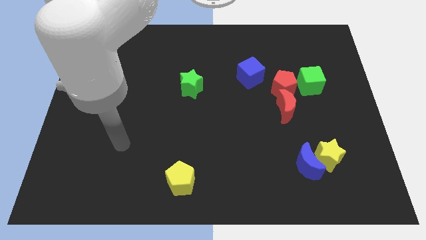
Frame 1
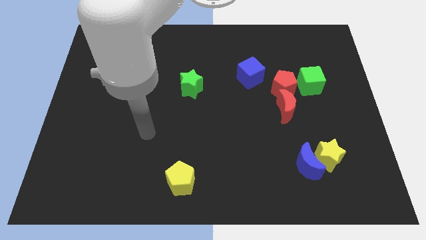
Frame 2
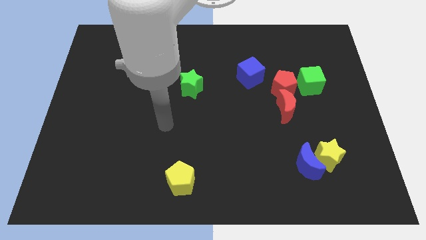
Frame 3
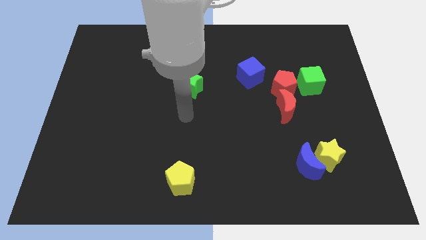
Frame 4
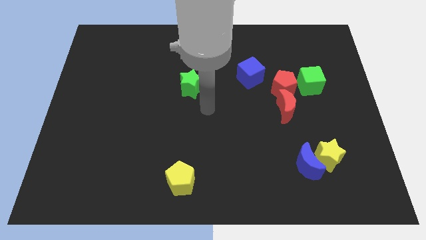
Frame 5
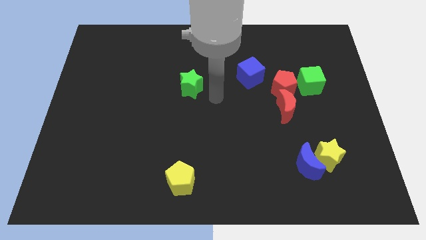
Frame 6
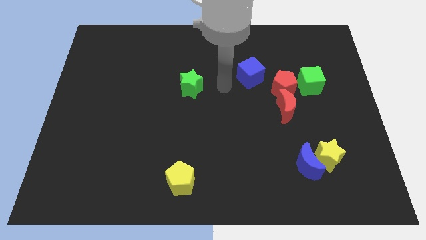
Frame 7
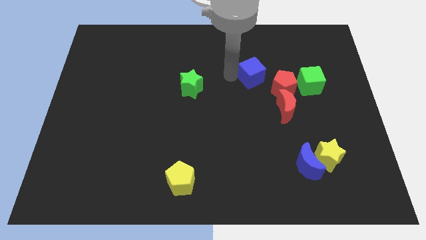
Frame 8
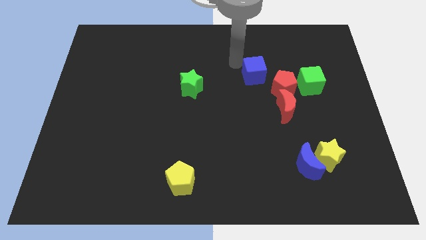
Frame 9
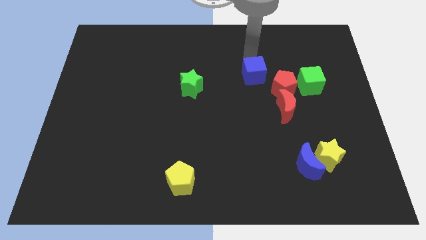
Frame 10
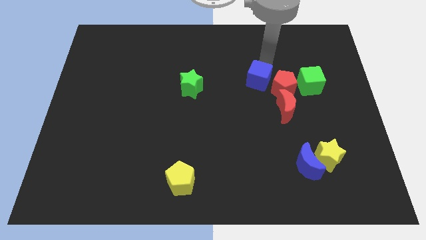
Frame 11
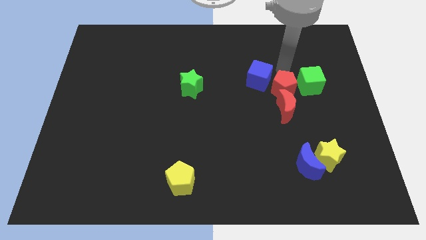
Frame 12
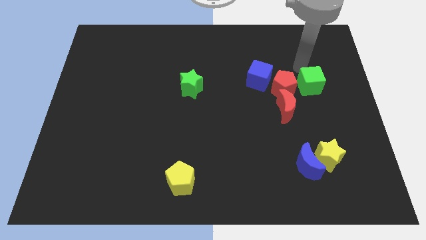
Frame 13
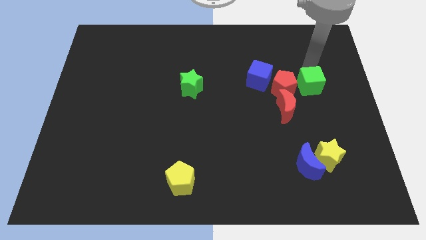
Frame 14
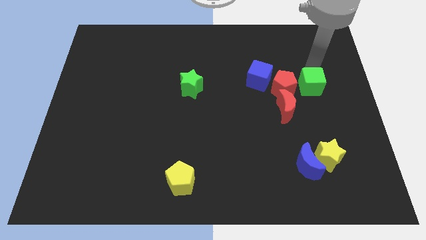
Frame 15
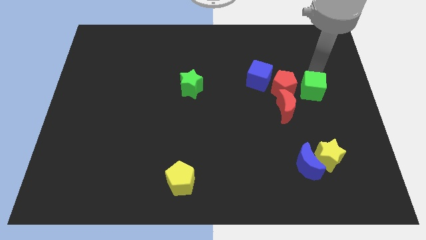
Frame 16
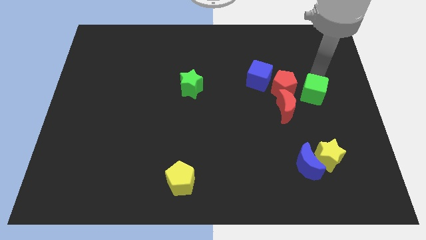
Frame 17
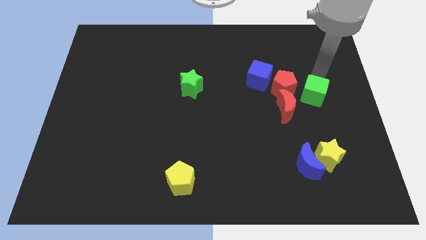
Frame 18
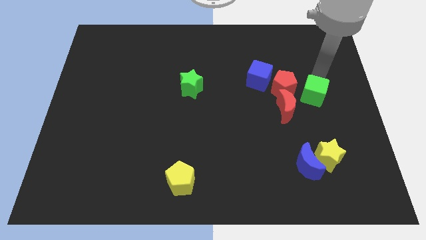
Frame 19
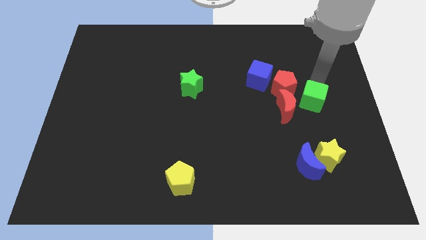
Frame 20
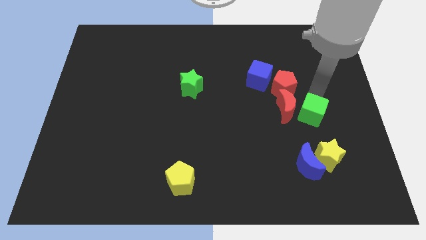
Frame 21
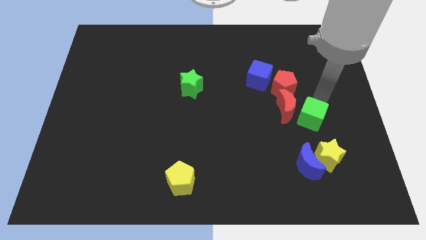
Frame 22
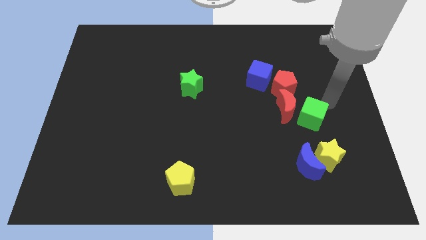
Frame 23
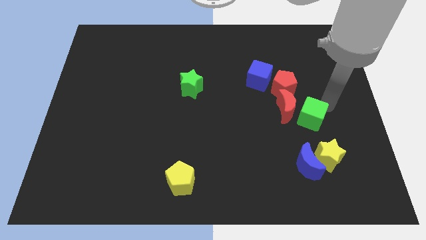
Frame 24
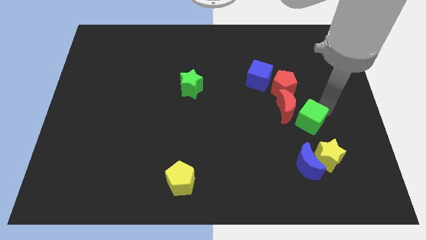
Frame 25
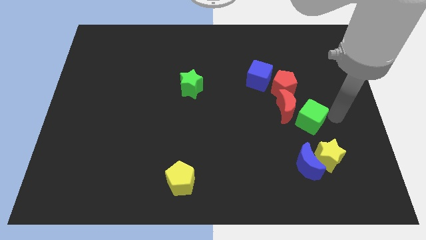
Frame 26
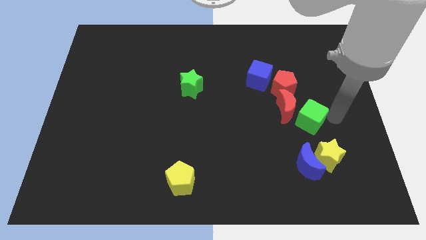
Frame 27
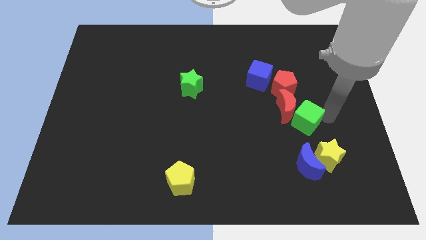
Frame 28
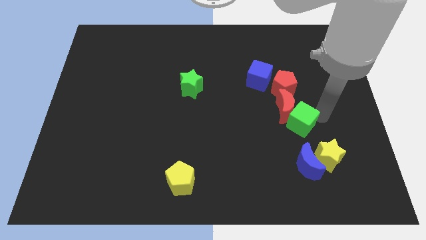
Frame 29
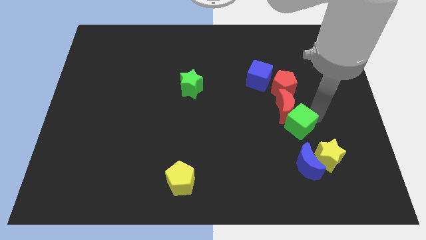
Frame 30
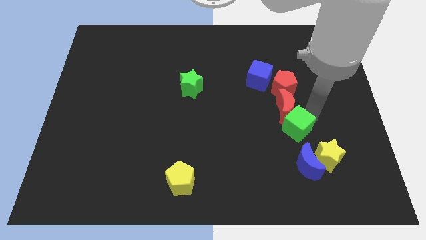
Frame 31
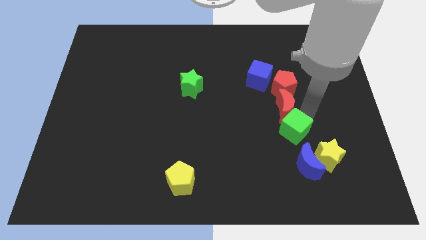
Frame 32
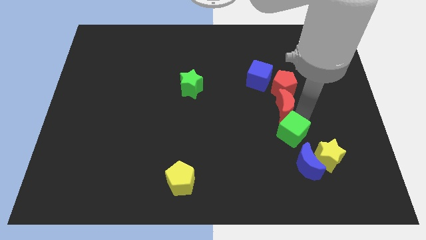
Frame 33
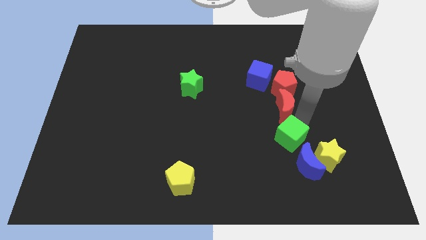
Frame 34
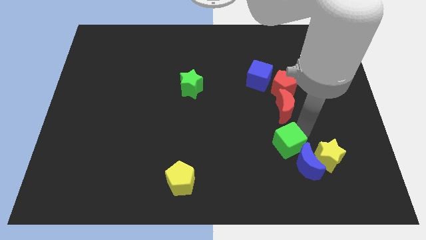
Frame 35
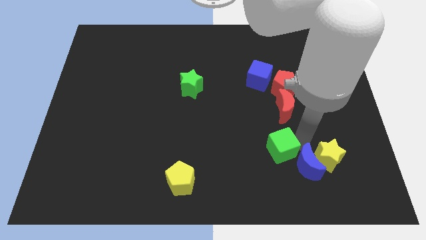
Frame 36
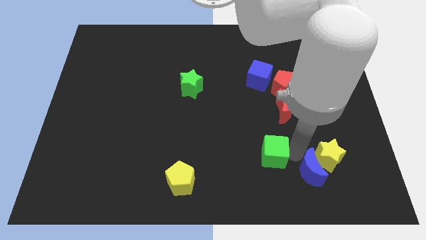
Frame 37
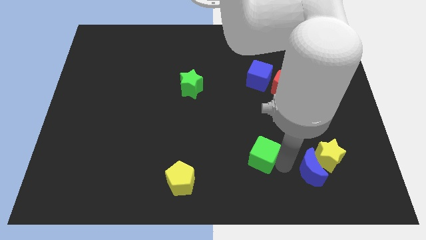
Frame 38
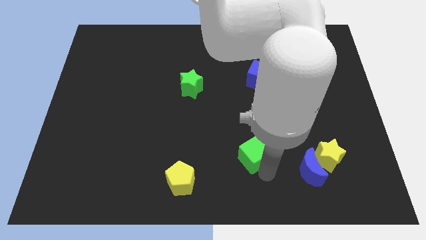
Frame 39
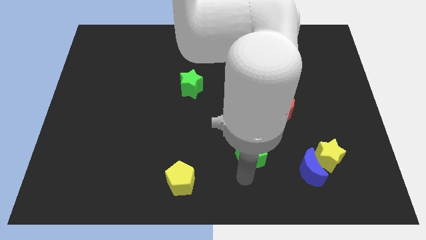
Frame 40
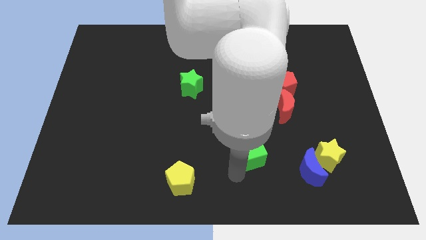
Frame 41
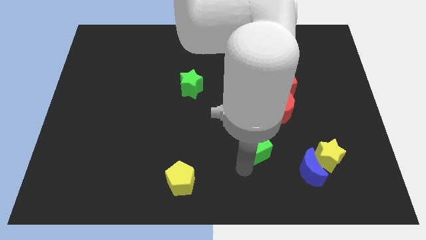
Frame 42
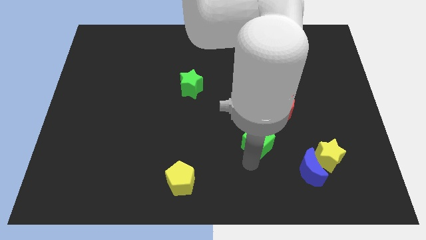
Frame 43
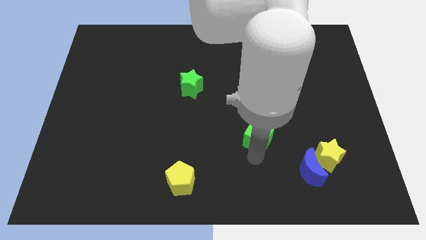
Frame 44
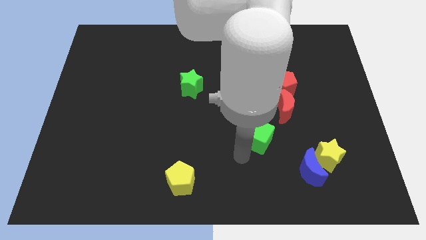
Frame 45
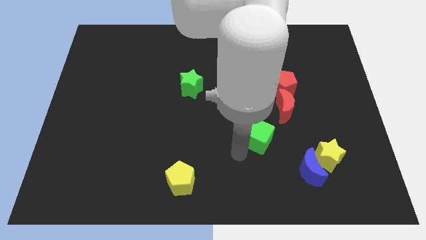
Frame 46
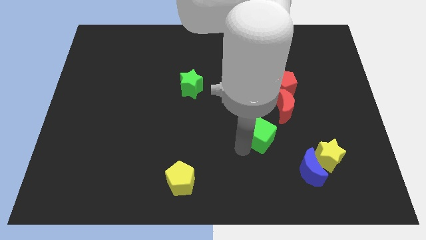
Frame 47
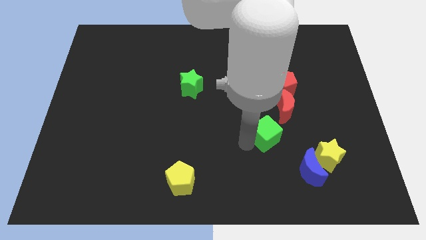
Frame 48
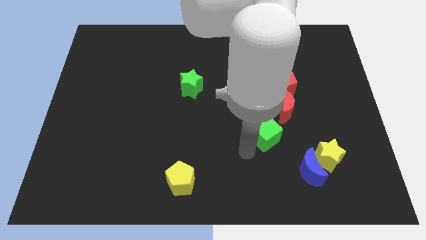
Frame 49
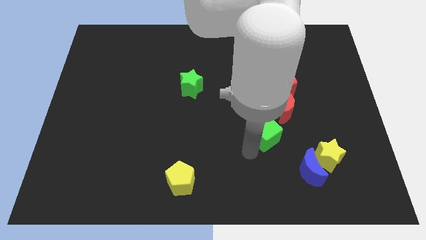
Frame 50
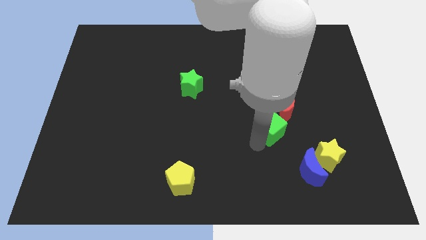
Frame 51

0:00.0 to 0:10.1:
push the green cube to the bottom side of the blue cube

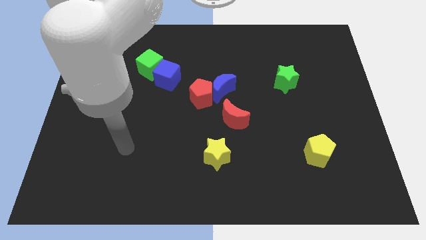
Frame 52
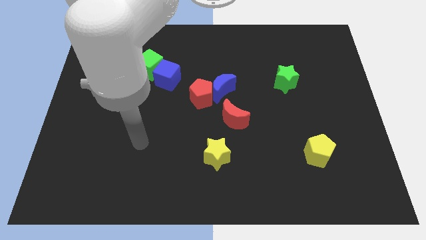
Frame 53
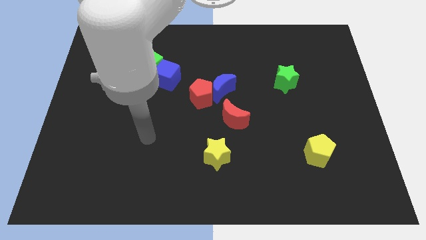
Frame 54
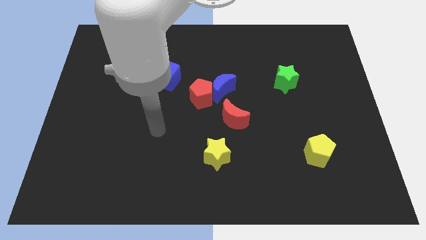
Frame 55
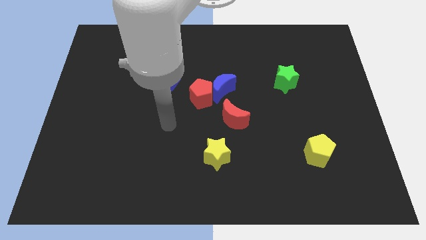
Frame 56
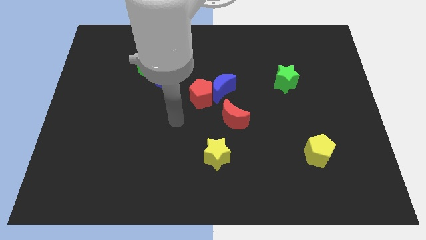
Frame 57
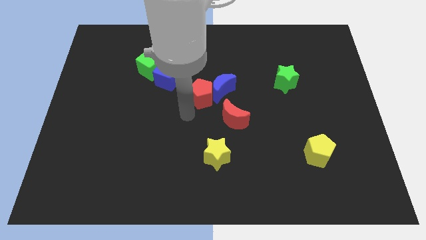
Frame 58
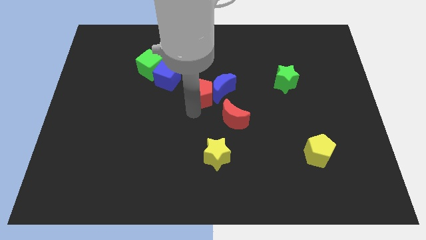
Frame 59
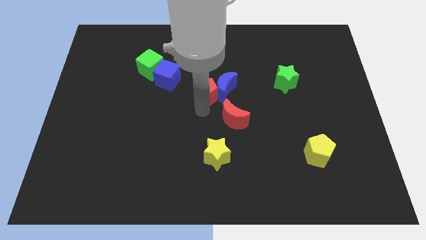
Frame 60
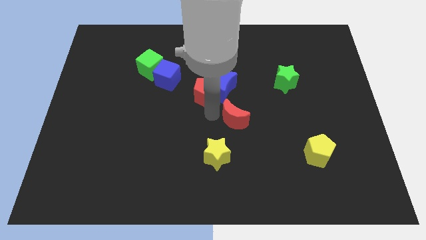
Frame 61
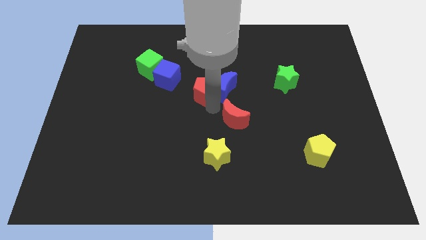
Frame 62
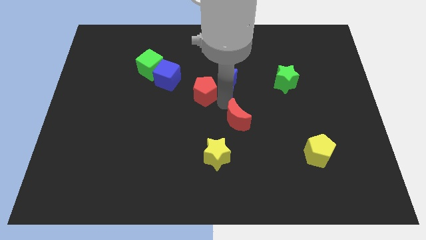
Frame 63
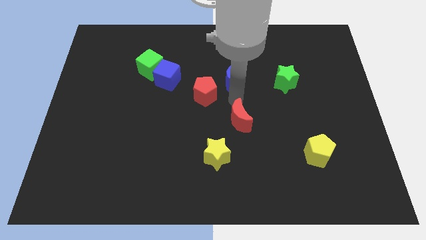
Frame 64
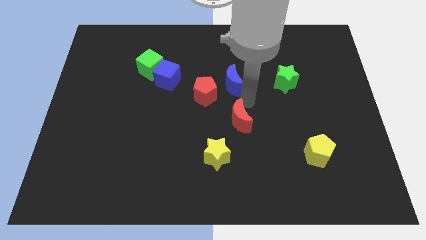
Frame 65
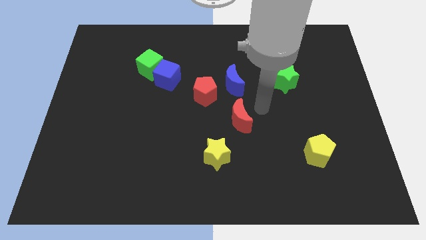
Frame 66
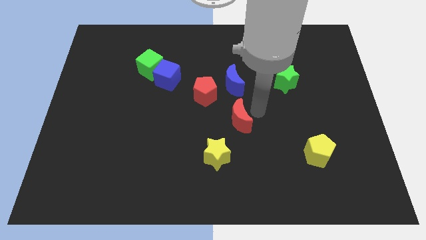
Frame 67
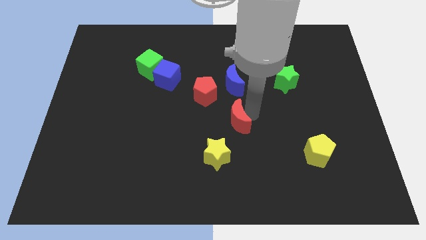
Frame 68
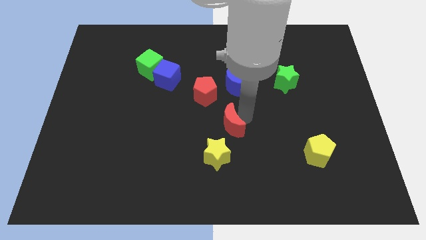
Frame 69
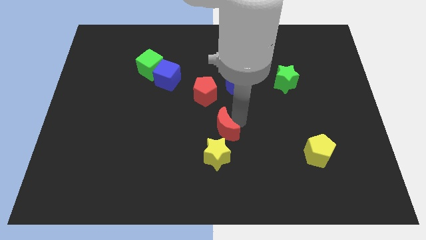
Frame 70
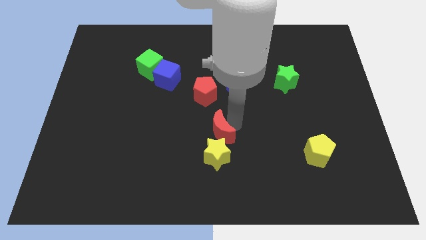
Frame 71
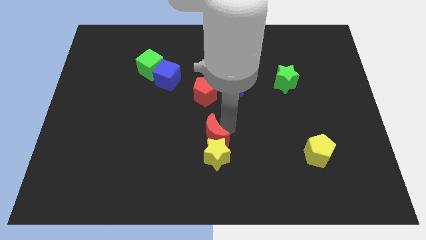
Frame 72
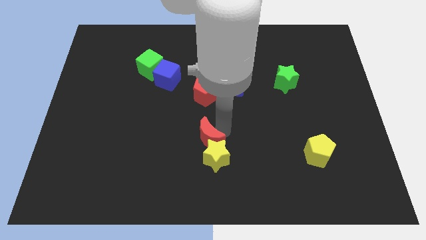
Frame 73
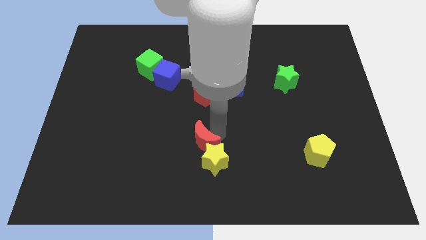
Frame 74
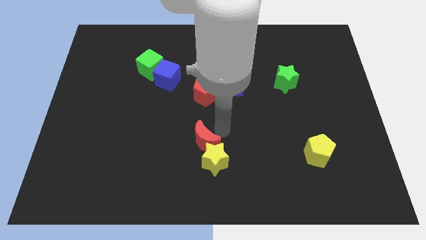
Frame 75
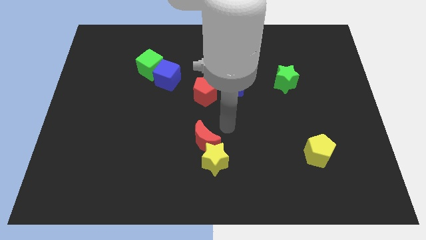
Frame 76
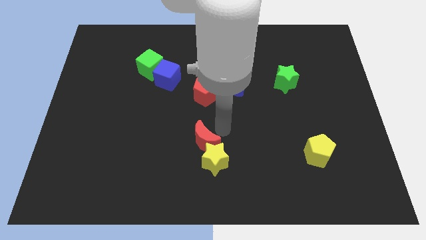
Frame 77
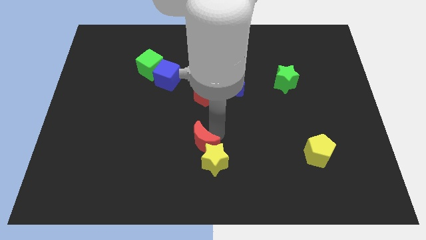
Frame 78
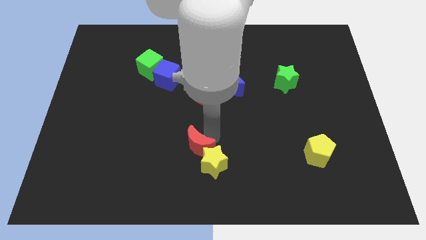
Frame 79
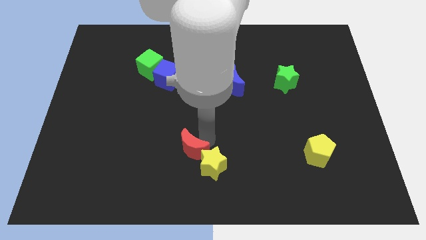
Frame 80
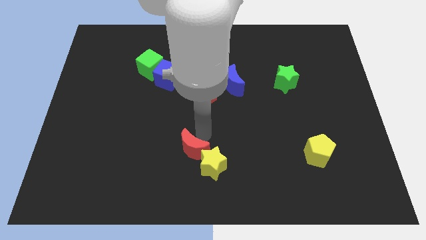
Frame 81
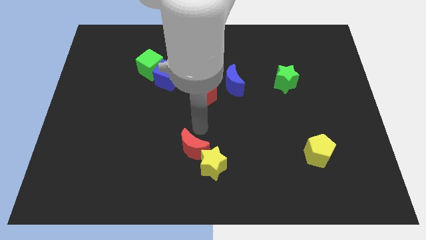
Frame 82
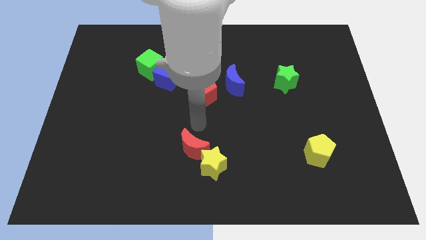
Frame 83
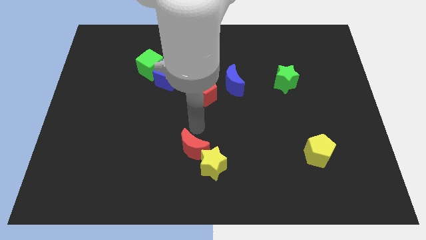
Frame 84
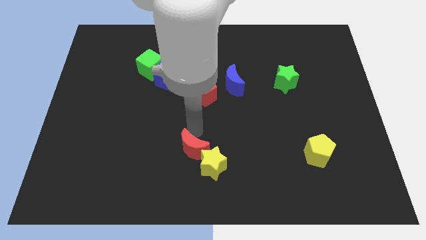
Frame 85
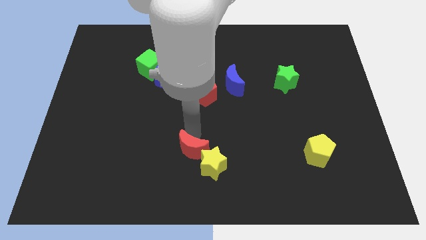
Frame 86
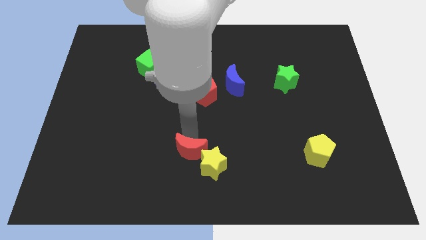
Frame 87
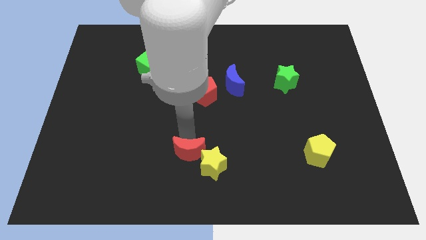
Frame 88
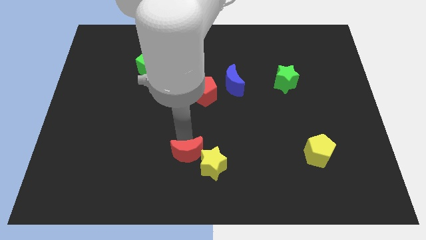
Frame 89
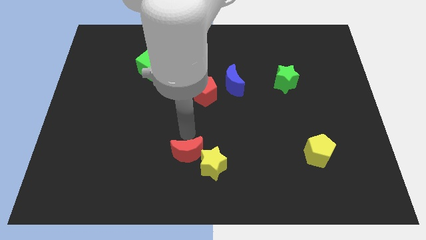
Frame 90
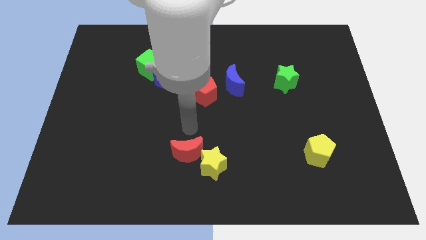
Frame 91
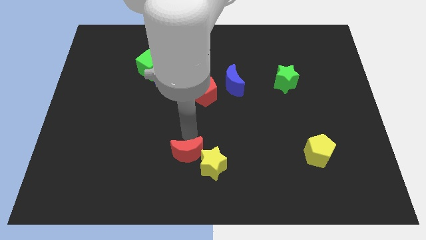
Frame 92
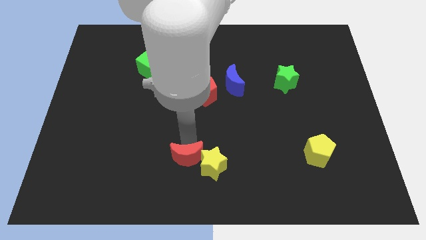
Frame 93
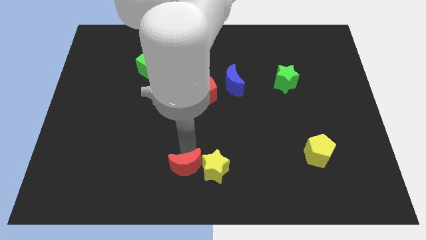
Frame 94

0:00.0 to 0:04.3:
move the red moon to the bottom left of the yellow star
